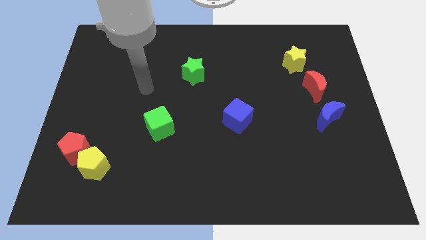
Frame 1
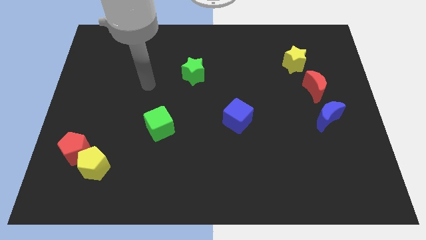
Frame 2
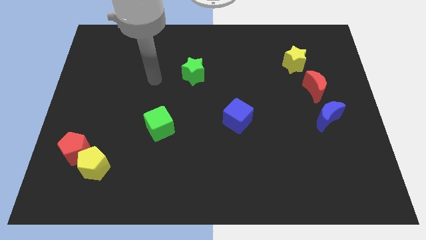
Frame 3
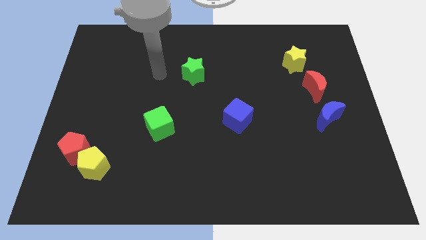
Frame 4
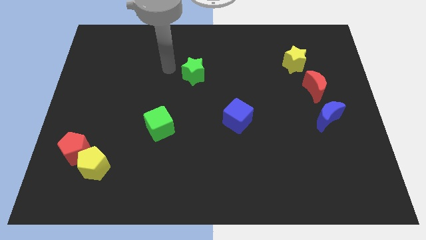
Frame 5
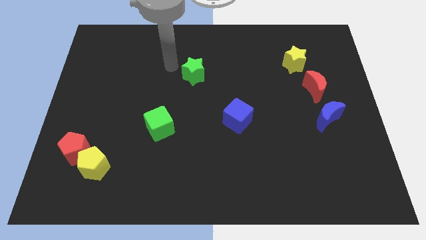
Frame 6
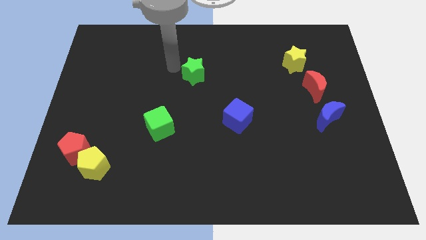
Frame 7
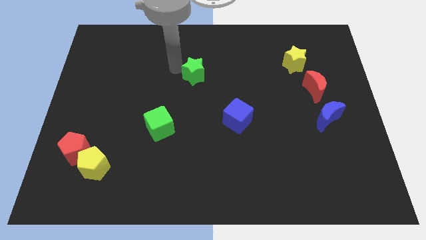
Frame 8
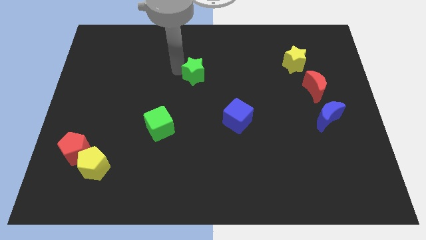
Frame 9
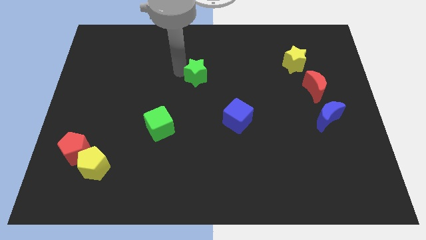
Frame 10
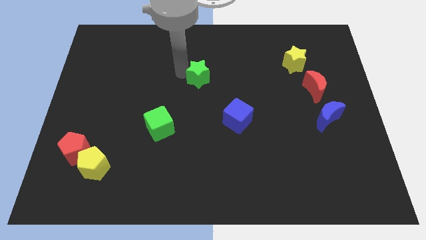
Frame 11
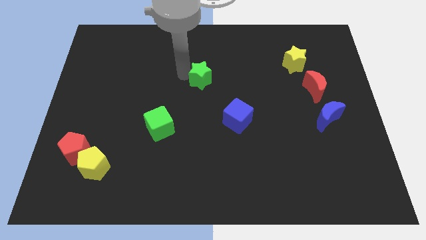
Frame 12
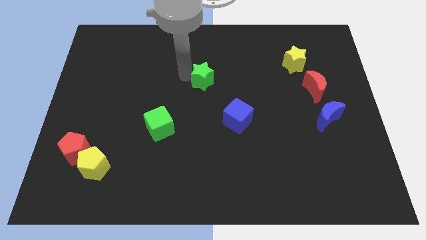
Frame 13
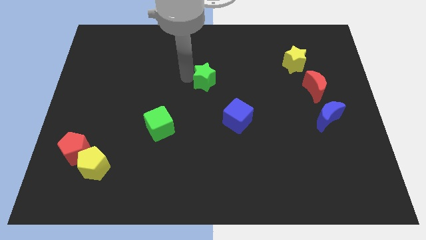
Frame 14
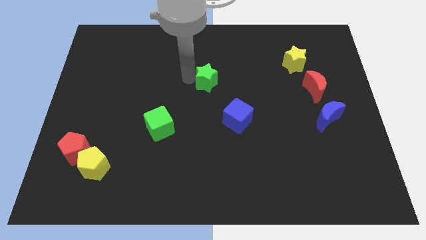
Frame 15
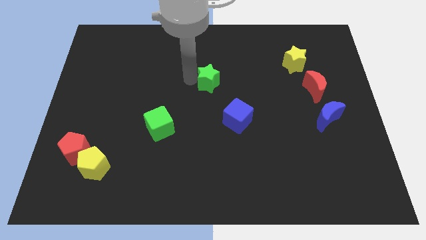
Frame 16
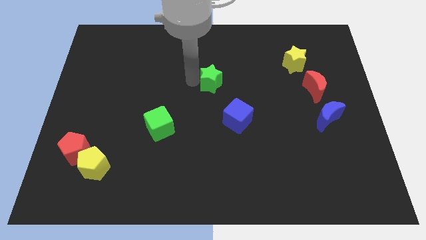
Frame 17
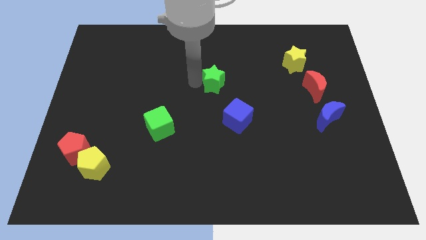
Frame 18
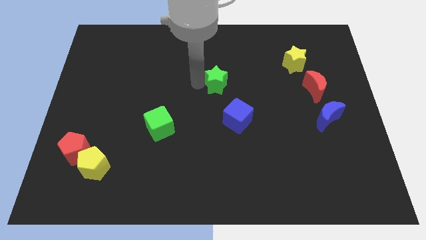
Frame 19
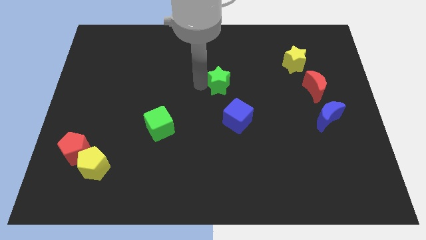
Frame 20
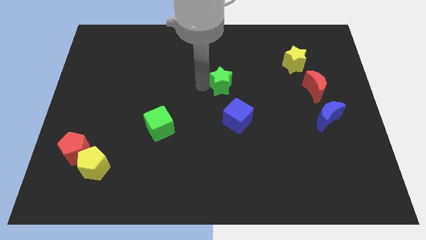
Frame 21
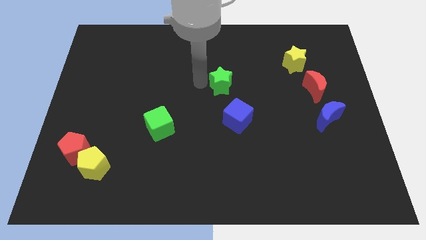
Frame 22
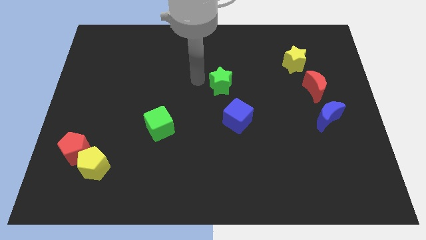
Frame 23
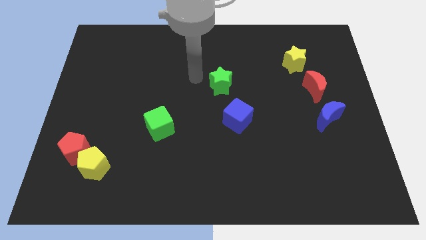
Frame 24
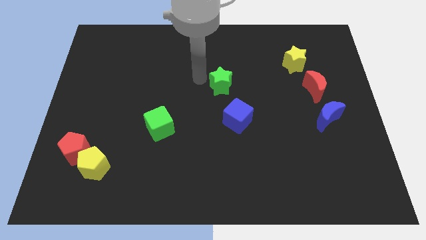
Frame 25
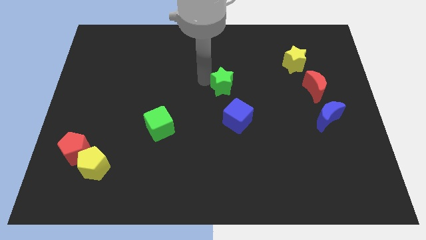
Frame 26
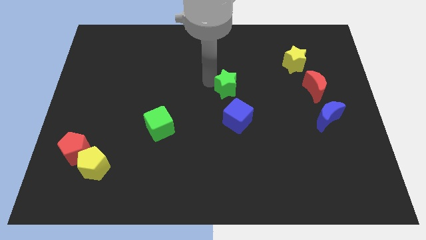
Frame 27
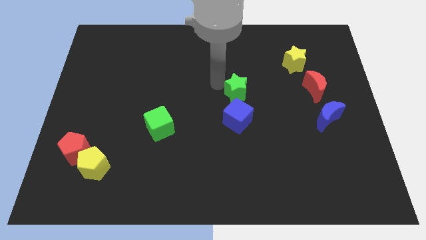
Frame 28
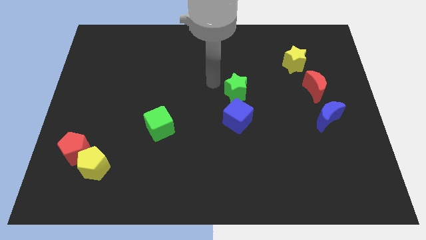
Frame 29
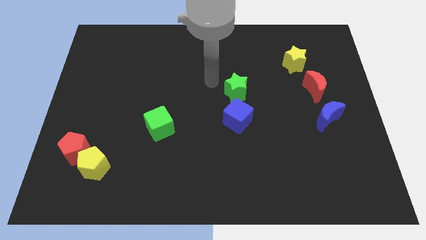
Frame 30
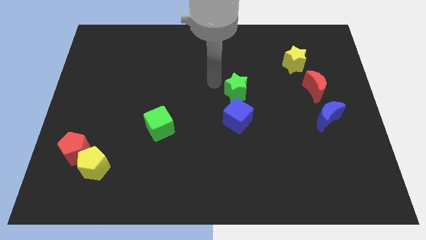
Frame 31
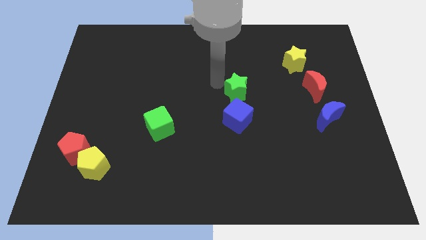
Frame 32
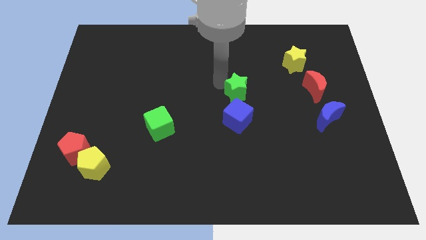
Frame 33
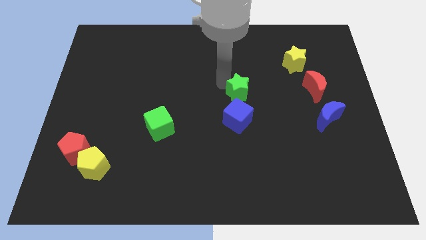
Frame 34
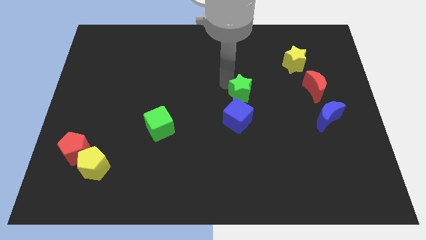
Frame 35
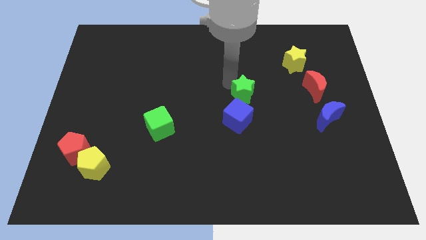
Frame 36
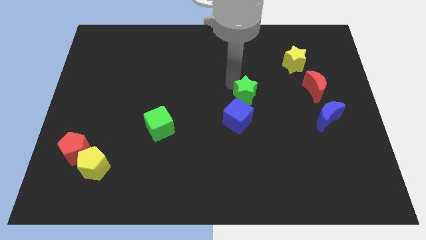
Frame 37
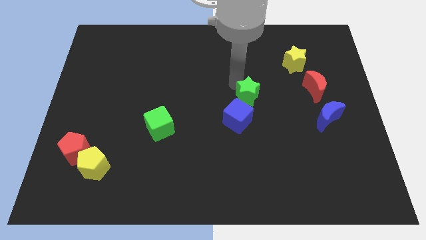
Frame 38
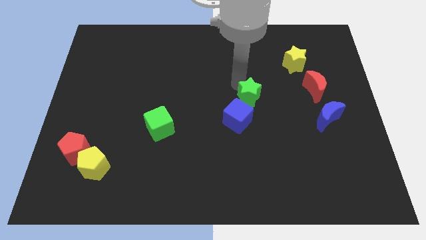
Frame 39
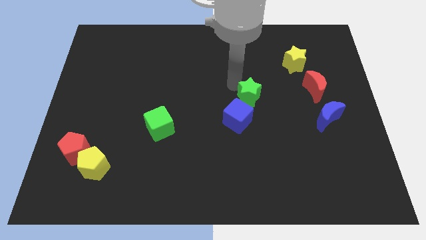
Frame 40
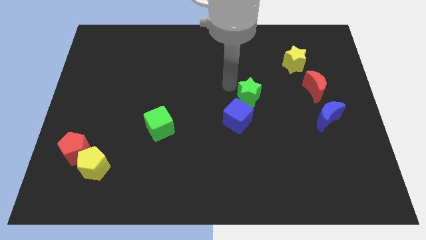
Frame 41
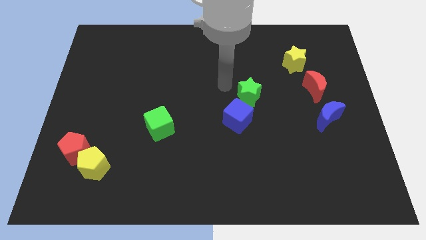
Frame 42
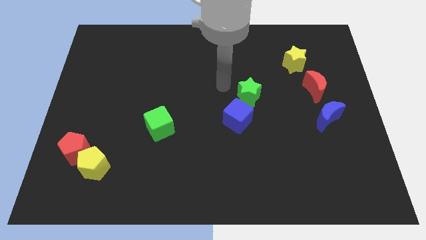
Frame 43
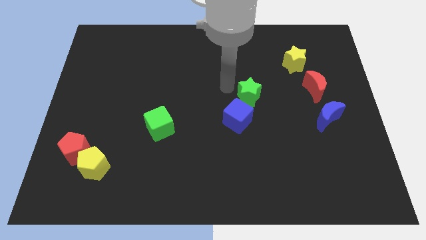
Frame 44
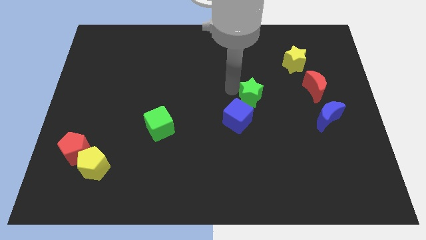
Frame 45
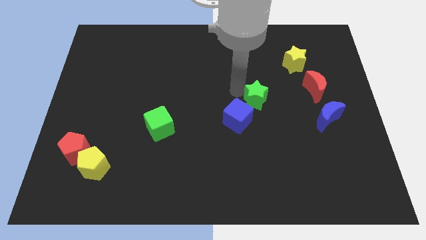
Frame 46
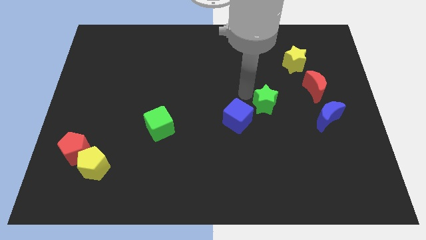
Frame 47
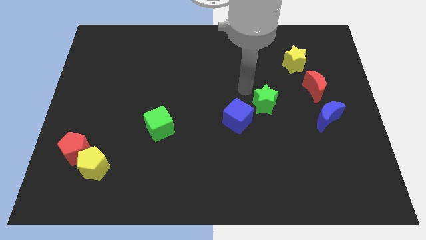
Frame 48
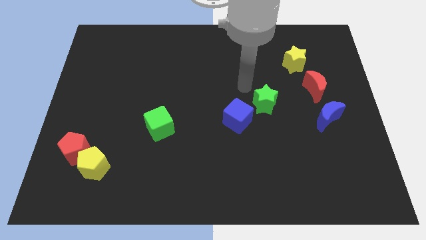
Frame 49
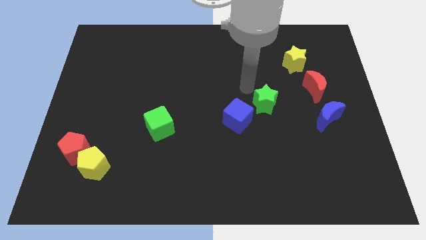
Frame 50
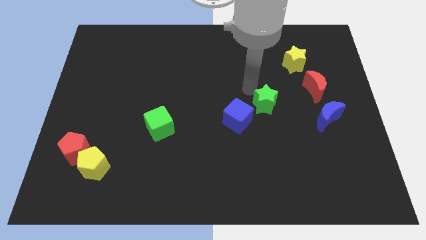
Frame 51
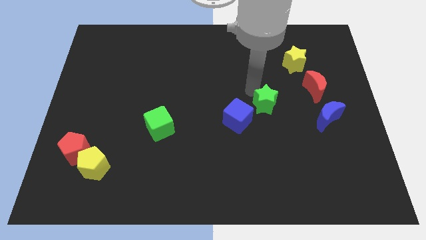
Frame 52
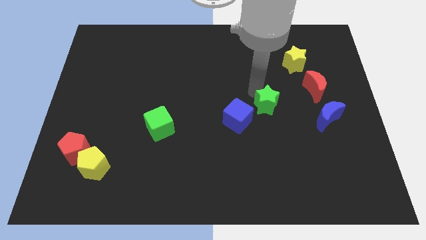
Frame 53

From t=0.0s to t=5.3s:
move the green star just left of the blue moon

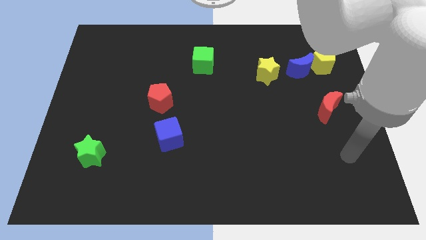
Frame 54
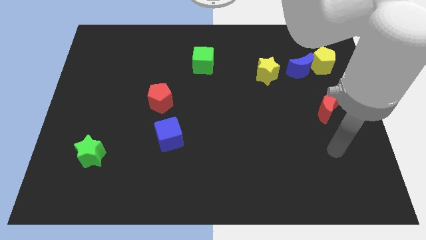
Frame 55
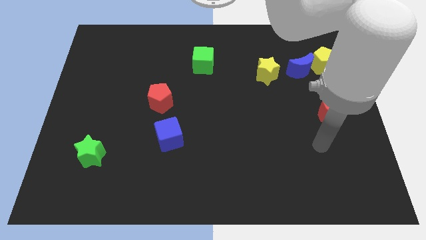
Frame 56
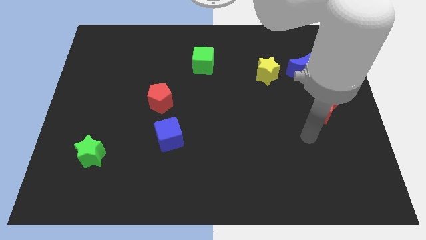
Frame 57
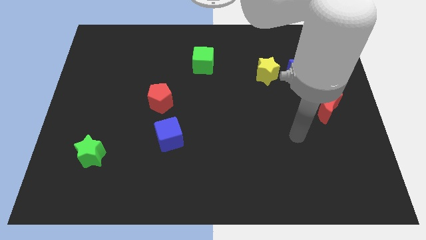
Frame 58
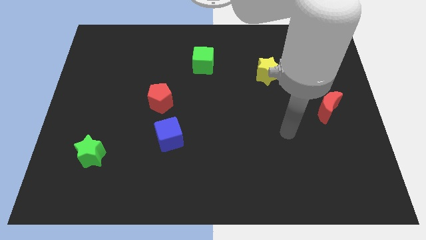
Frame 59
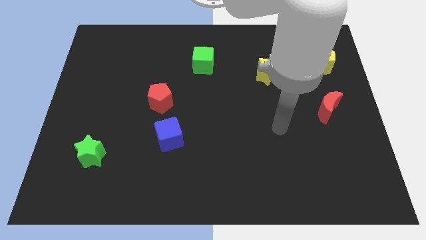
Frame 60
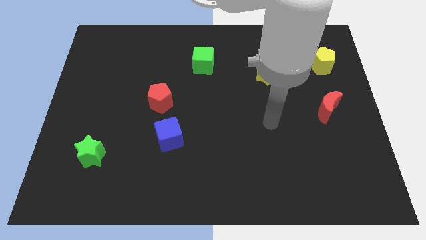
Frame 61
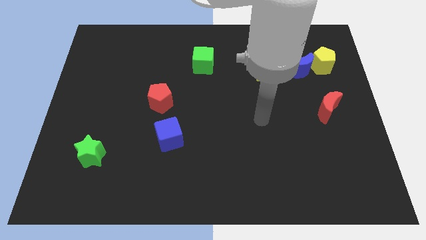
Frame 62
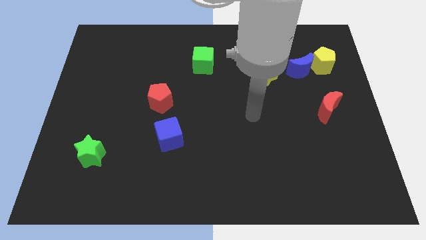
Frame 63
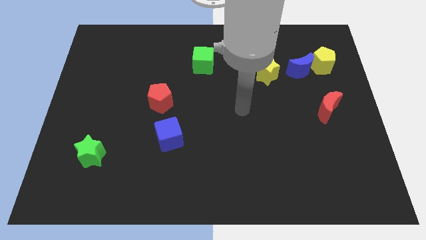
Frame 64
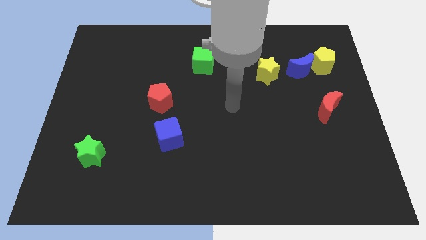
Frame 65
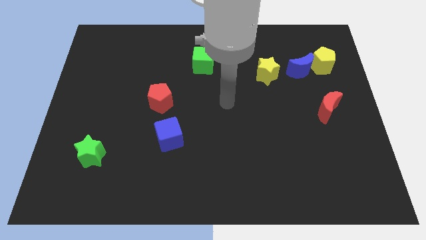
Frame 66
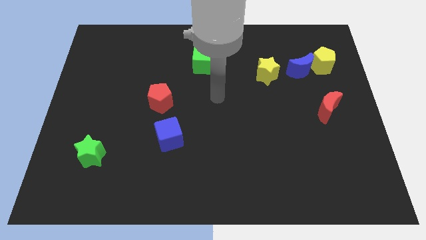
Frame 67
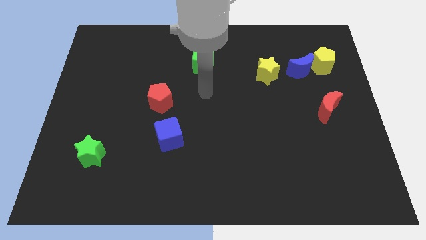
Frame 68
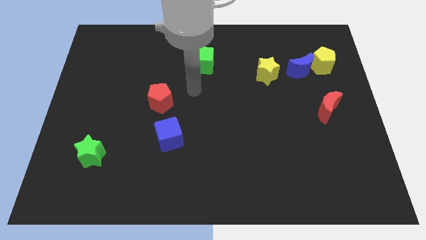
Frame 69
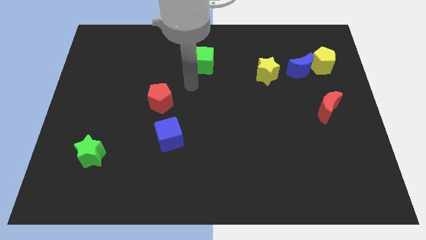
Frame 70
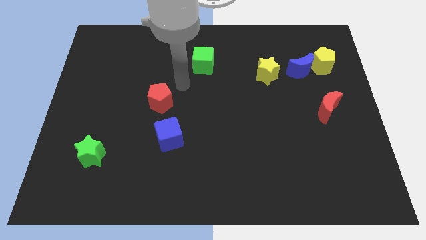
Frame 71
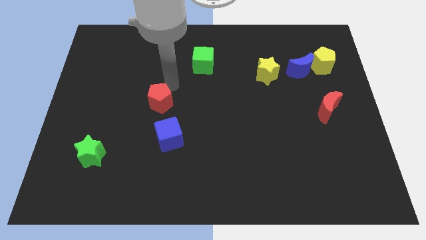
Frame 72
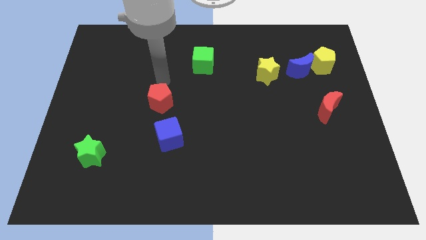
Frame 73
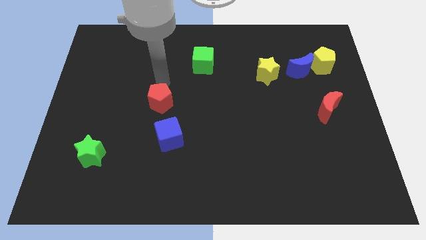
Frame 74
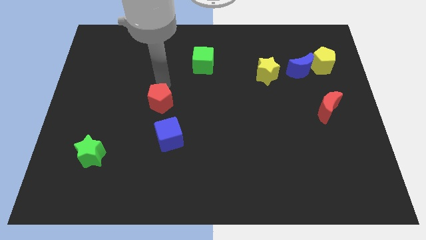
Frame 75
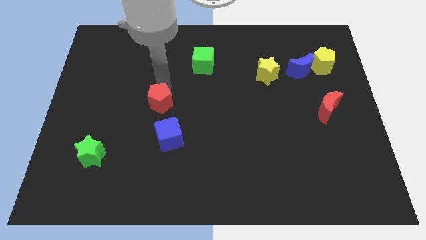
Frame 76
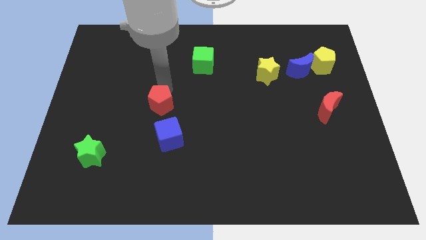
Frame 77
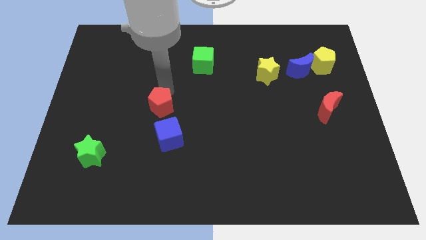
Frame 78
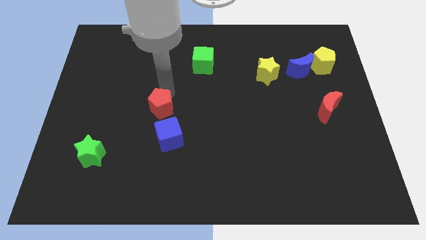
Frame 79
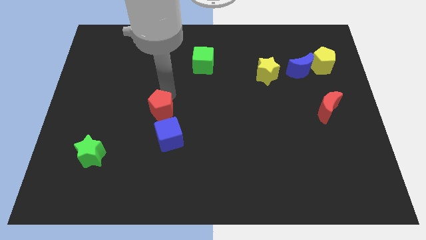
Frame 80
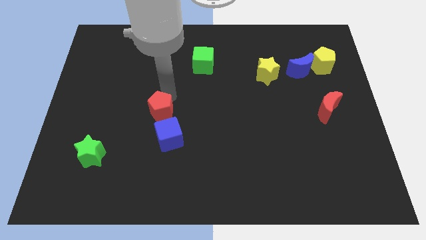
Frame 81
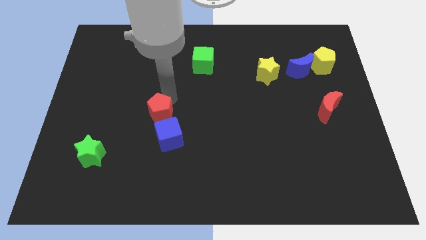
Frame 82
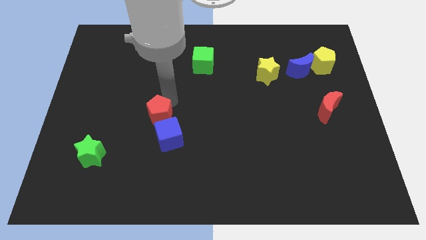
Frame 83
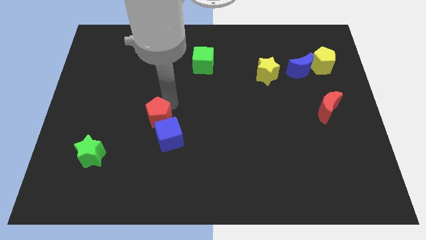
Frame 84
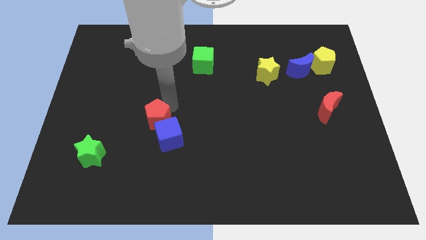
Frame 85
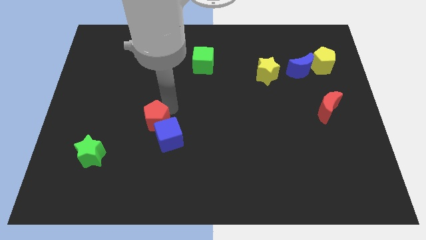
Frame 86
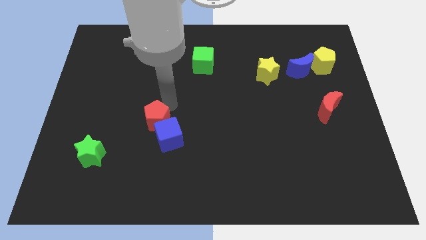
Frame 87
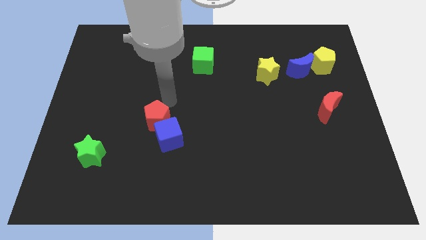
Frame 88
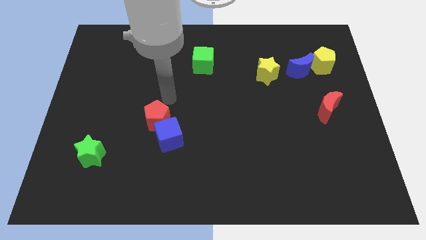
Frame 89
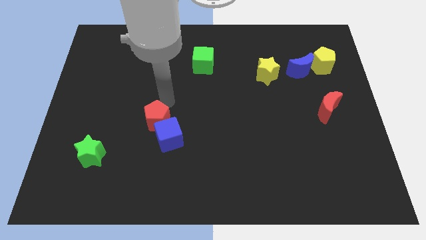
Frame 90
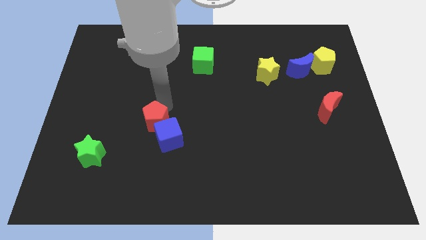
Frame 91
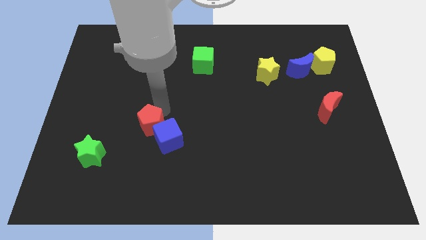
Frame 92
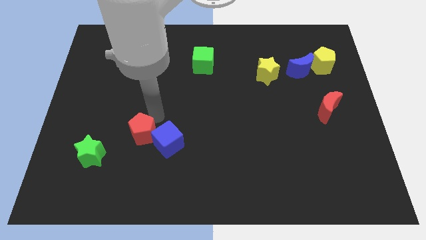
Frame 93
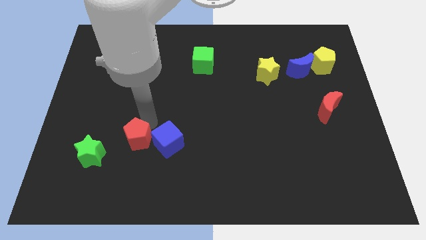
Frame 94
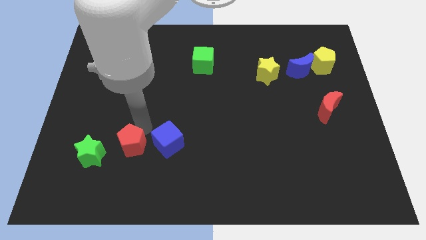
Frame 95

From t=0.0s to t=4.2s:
move the red pentagon diagonally down and to the left of the blue cube
